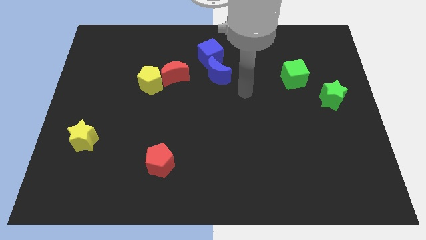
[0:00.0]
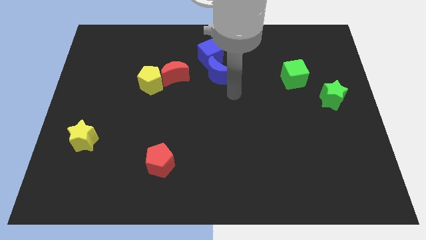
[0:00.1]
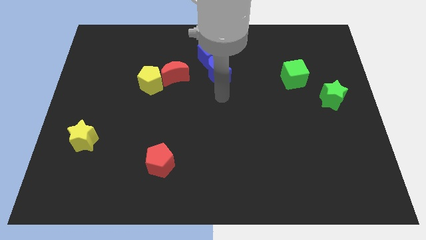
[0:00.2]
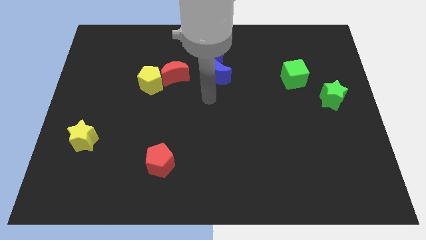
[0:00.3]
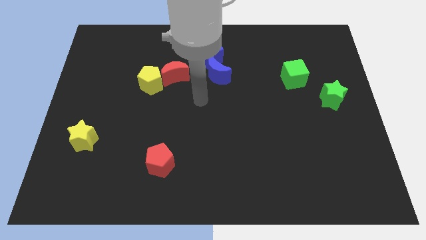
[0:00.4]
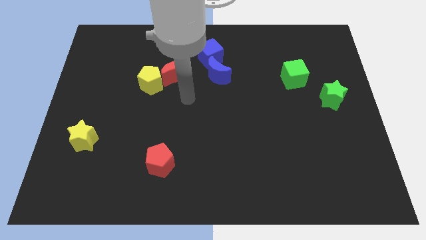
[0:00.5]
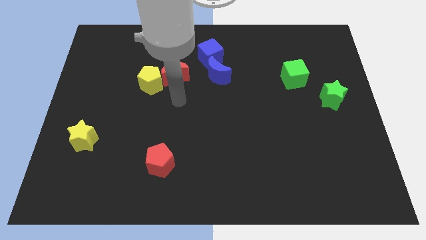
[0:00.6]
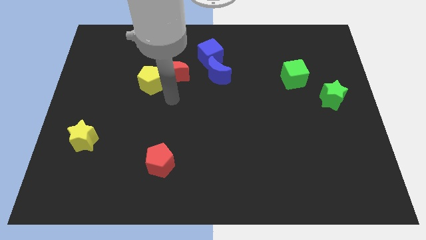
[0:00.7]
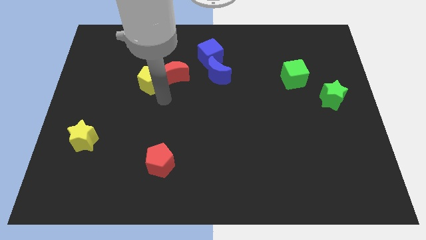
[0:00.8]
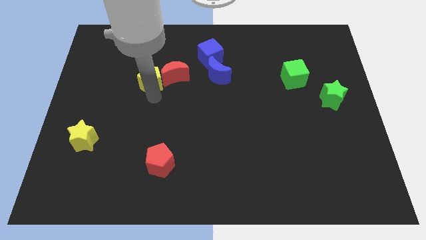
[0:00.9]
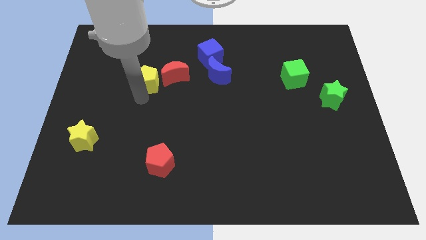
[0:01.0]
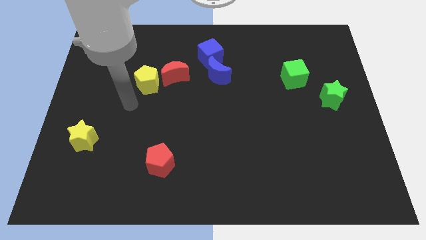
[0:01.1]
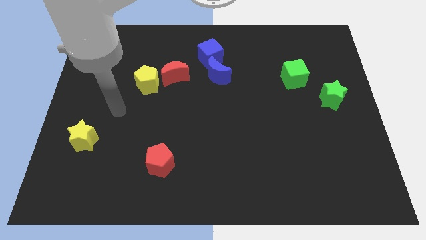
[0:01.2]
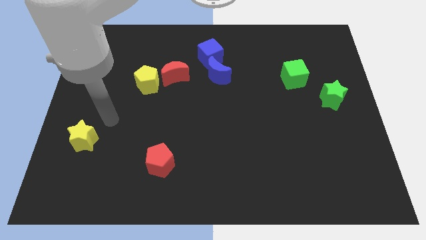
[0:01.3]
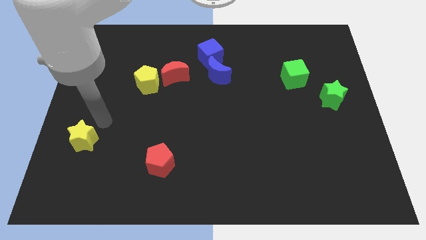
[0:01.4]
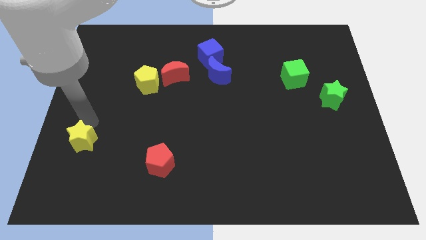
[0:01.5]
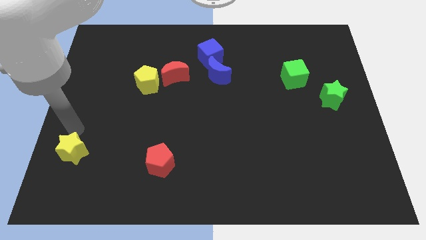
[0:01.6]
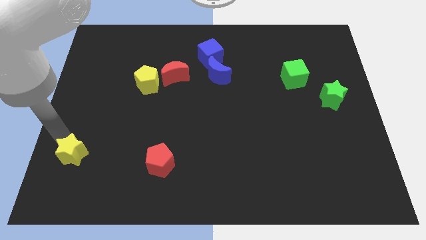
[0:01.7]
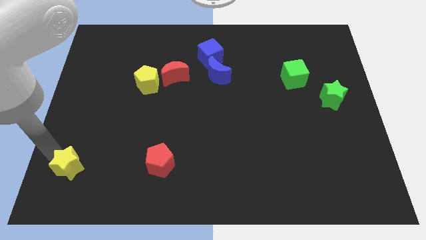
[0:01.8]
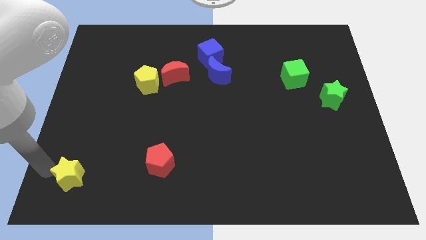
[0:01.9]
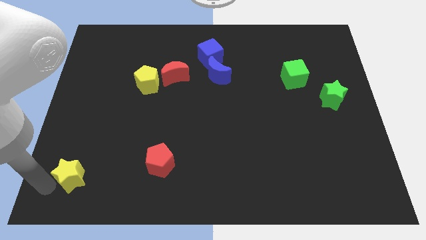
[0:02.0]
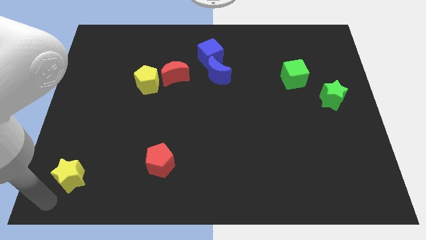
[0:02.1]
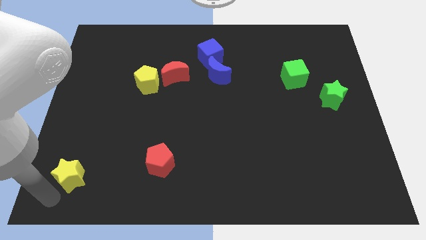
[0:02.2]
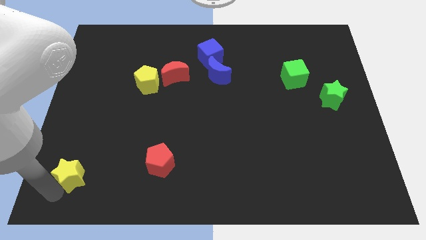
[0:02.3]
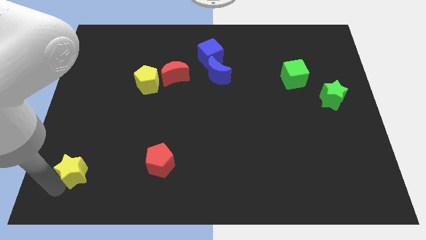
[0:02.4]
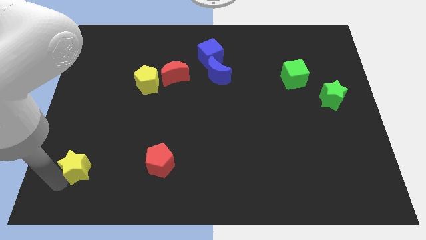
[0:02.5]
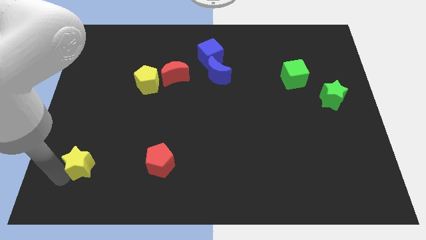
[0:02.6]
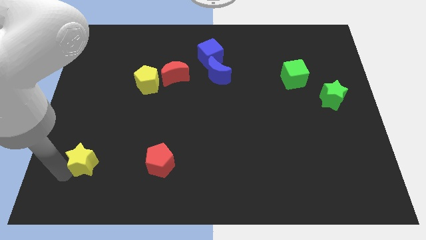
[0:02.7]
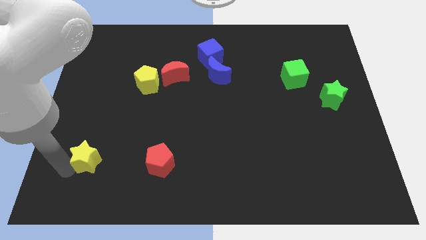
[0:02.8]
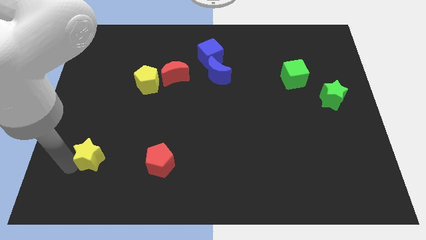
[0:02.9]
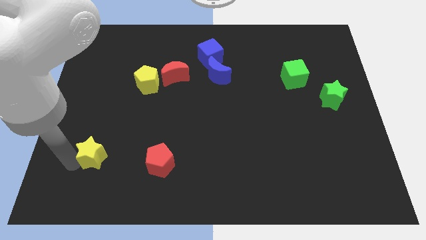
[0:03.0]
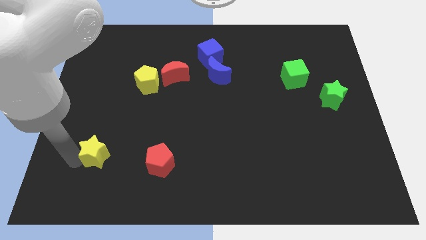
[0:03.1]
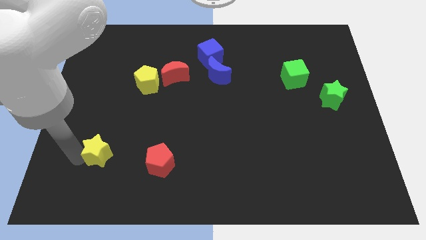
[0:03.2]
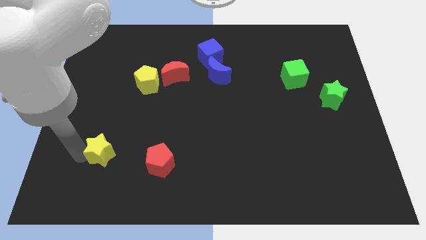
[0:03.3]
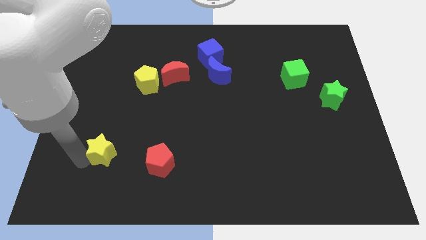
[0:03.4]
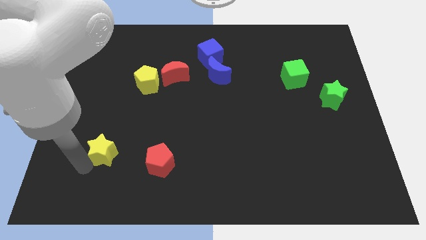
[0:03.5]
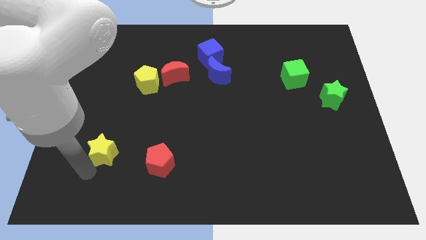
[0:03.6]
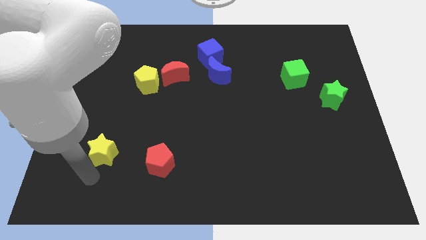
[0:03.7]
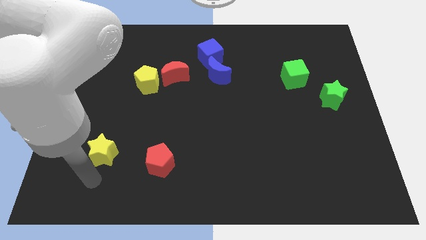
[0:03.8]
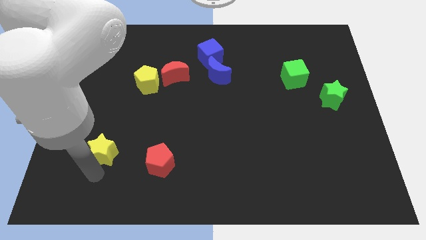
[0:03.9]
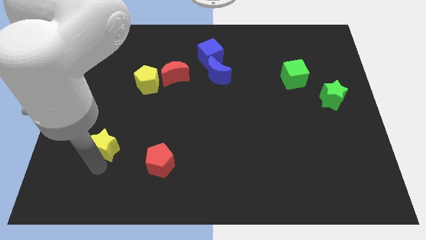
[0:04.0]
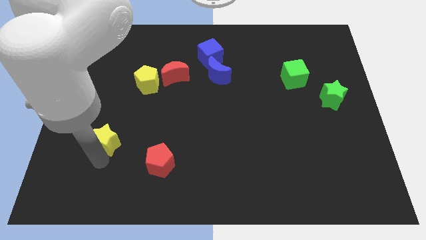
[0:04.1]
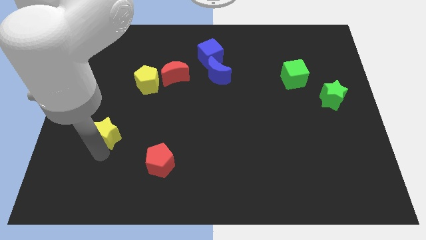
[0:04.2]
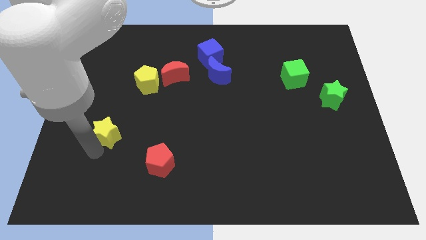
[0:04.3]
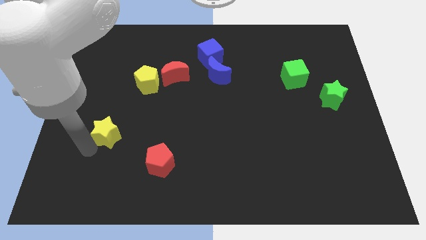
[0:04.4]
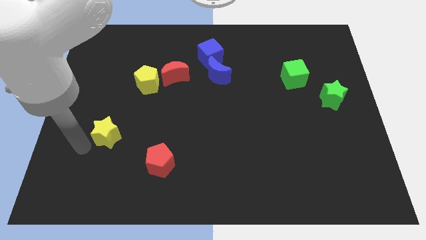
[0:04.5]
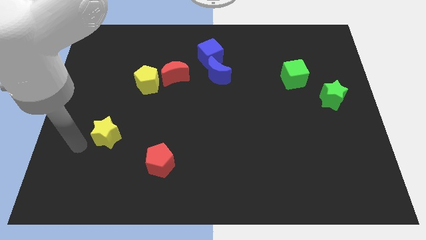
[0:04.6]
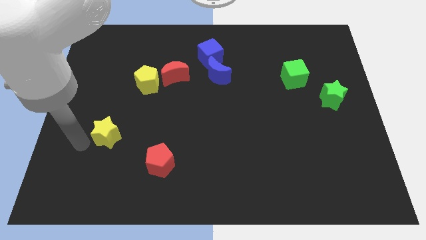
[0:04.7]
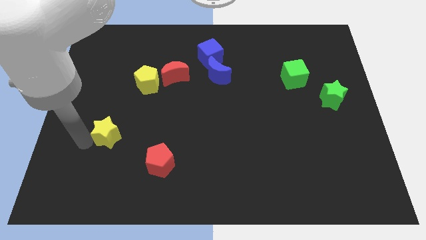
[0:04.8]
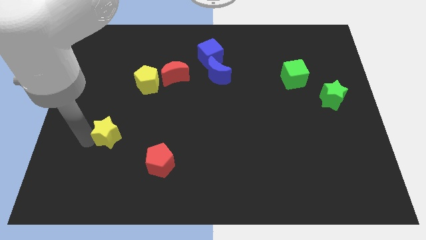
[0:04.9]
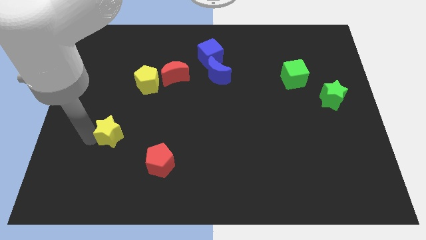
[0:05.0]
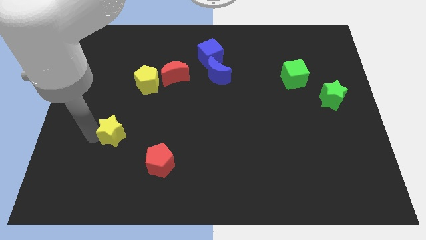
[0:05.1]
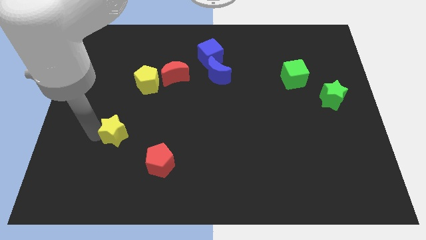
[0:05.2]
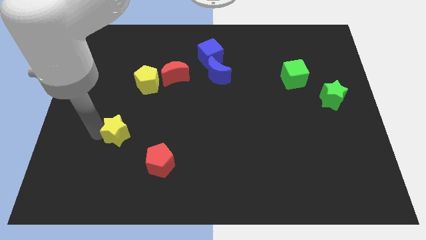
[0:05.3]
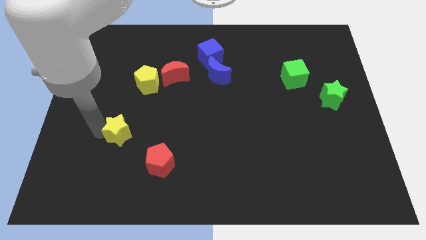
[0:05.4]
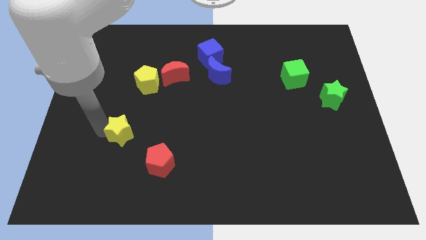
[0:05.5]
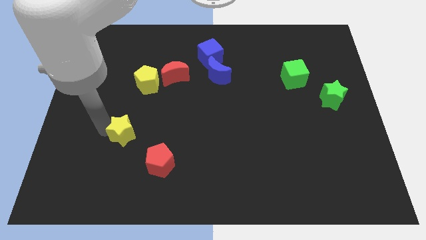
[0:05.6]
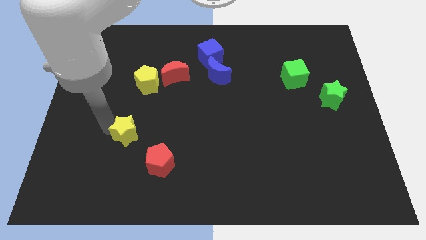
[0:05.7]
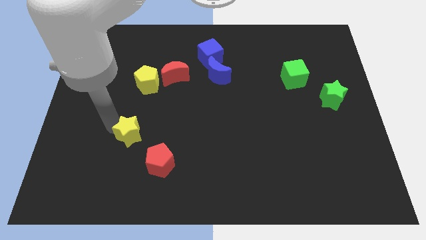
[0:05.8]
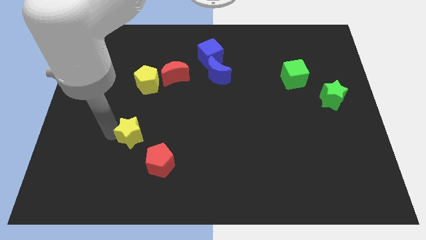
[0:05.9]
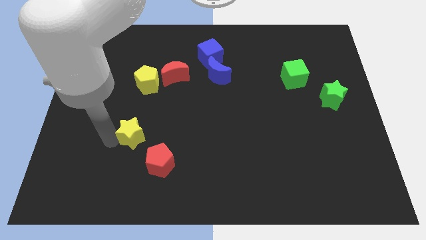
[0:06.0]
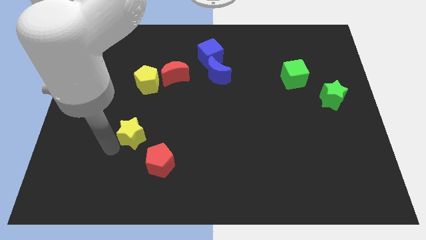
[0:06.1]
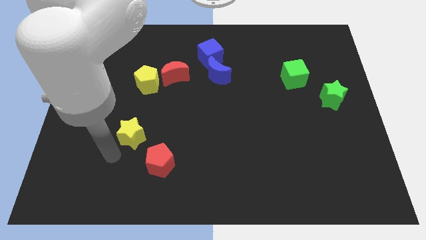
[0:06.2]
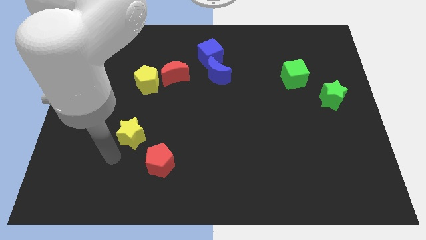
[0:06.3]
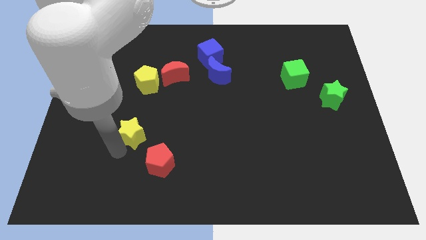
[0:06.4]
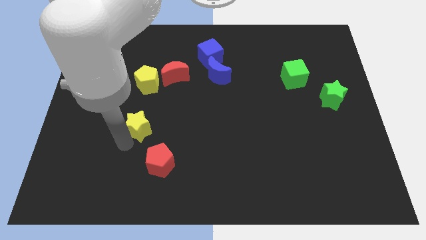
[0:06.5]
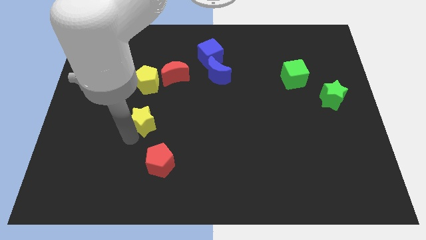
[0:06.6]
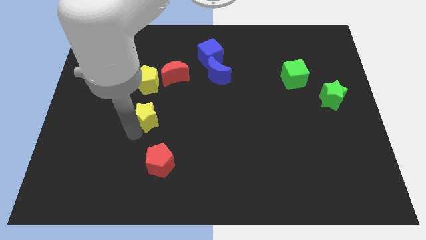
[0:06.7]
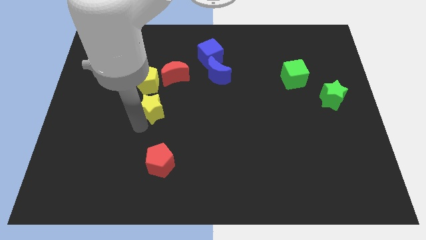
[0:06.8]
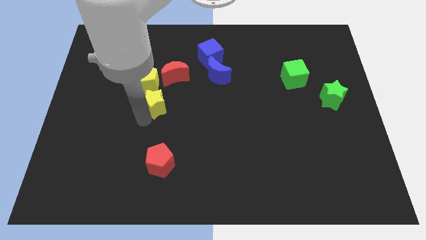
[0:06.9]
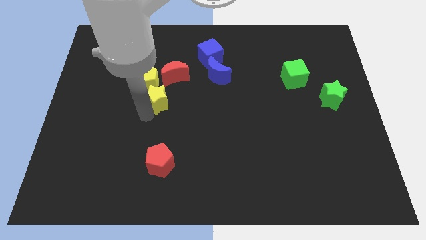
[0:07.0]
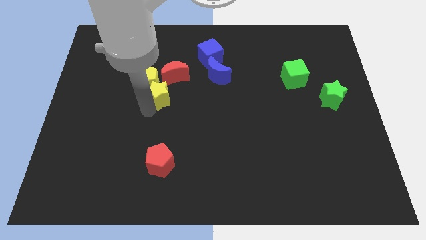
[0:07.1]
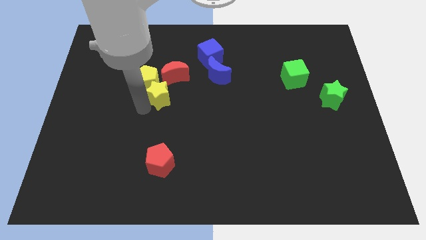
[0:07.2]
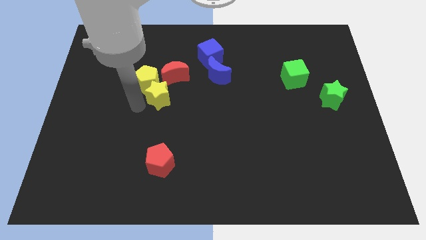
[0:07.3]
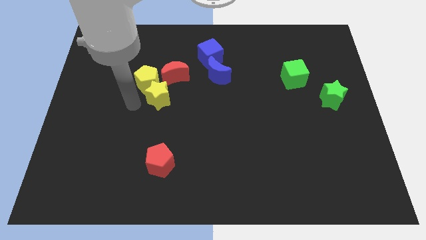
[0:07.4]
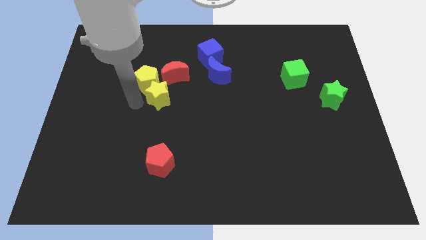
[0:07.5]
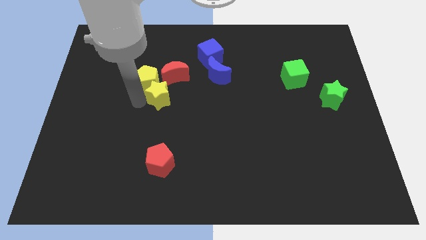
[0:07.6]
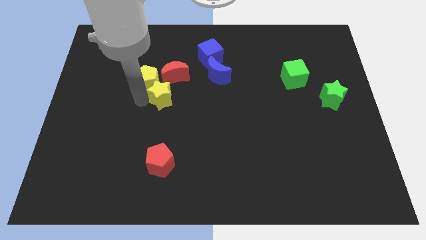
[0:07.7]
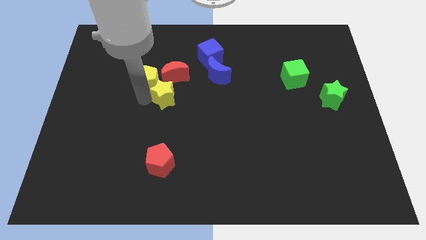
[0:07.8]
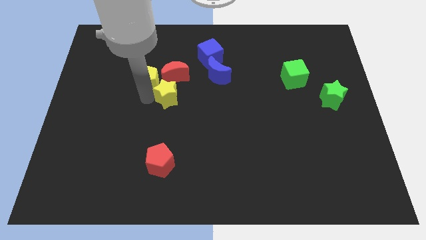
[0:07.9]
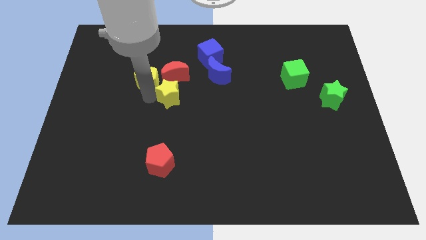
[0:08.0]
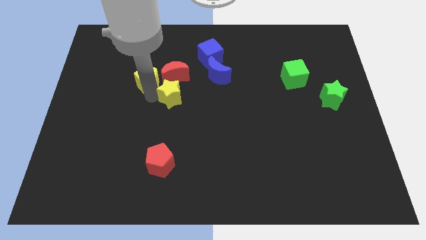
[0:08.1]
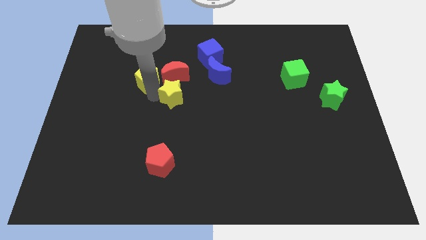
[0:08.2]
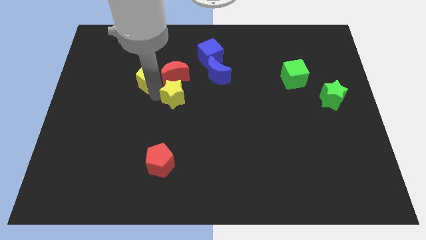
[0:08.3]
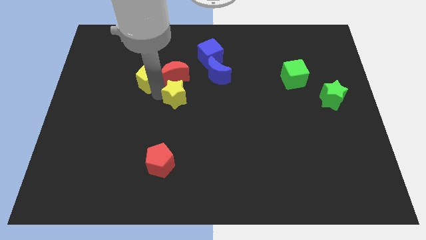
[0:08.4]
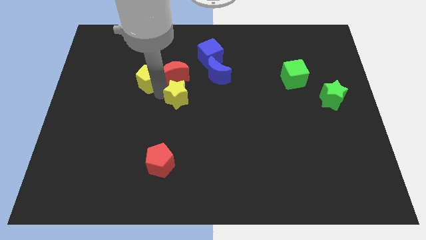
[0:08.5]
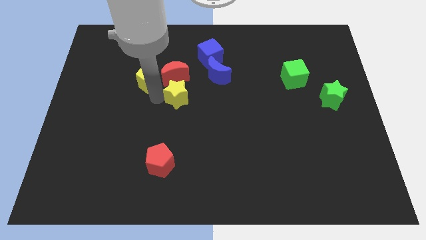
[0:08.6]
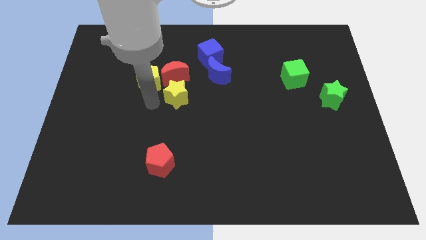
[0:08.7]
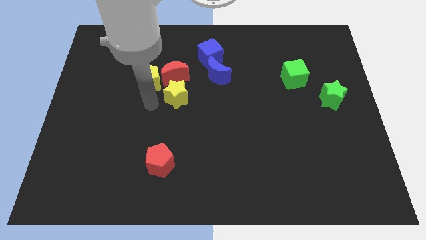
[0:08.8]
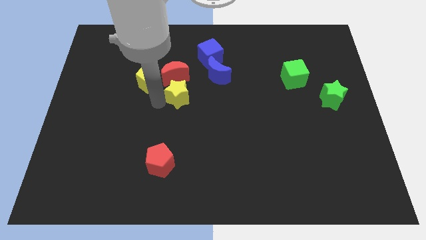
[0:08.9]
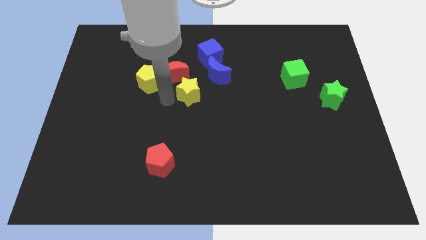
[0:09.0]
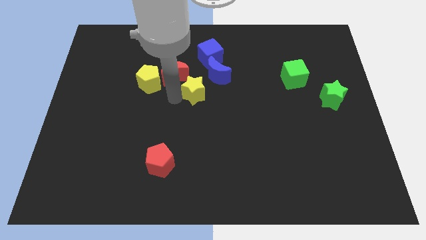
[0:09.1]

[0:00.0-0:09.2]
move the yellow star below the blue cube
